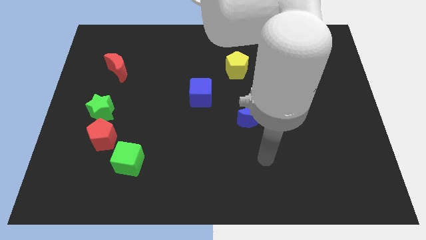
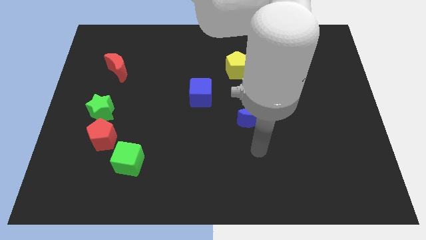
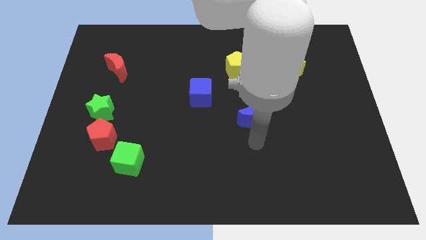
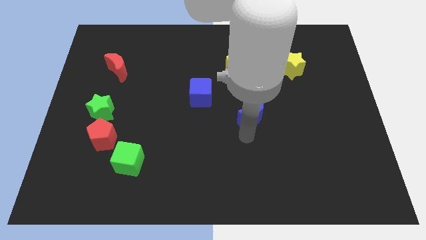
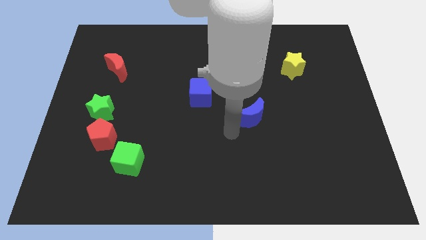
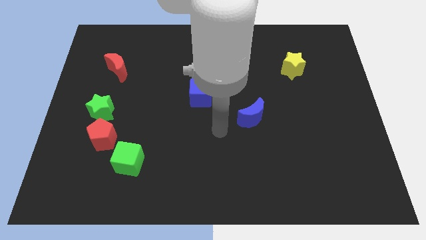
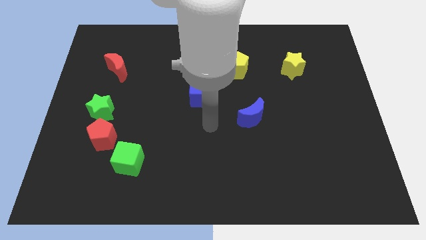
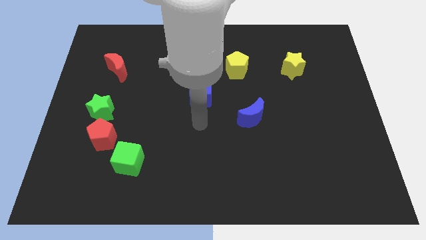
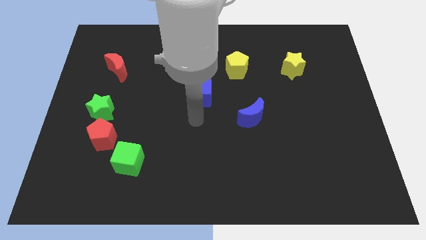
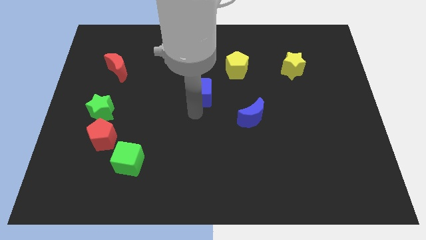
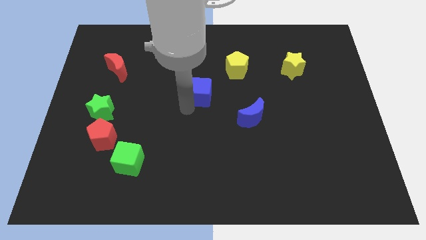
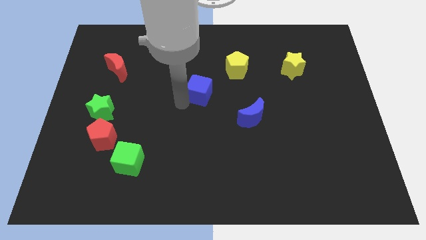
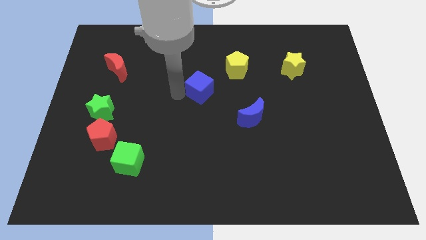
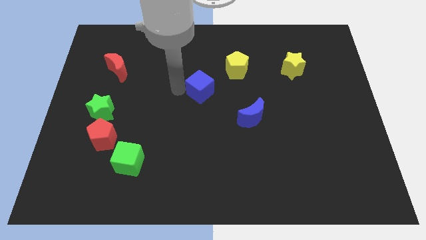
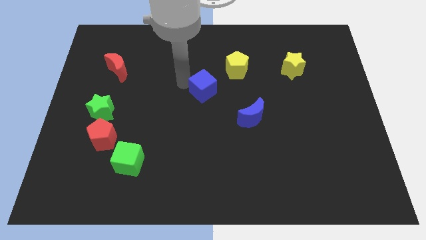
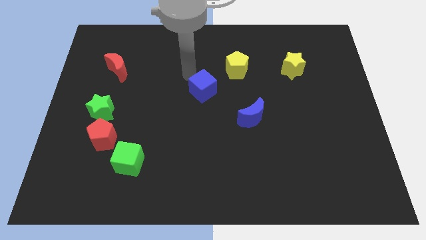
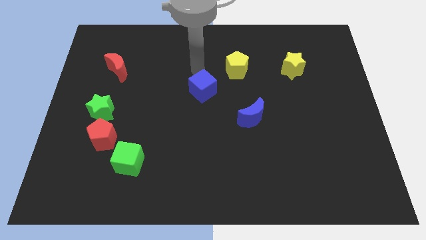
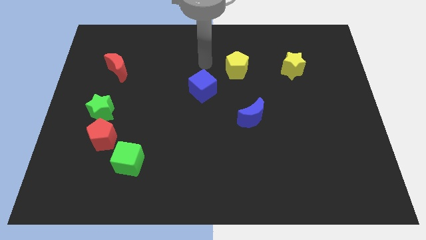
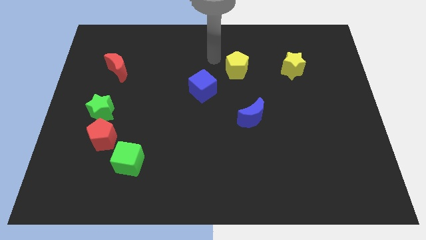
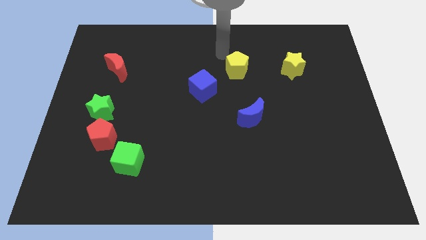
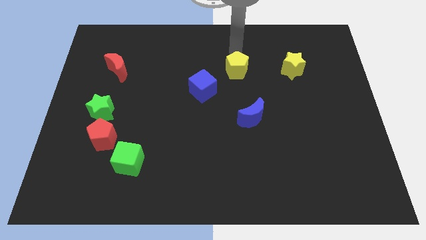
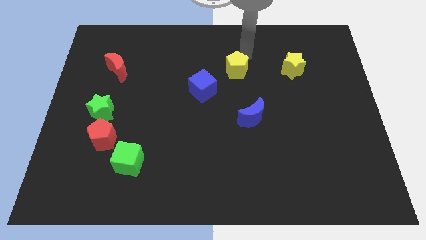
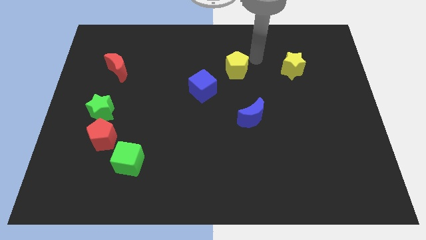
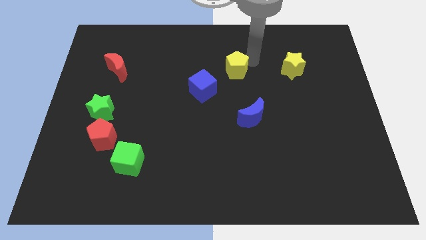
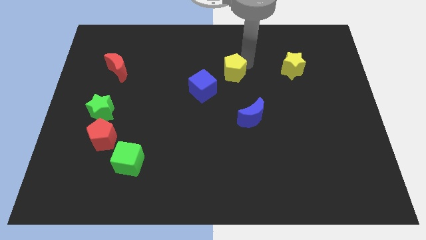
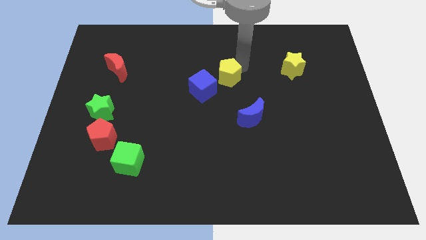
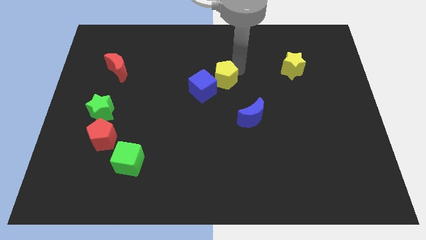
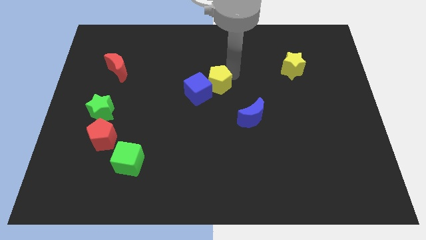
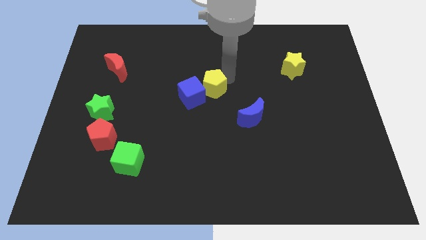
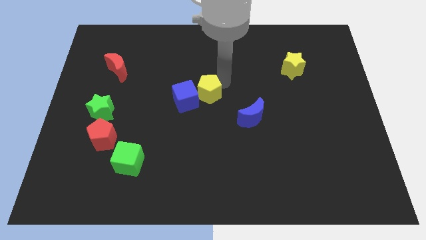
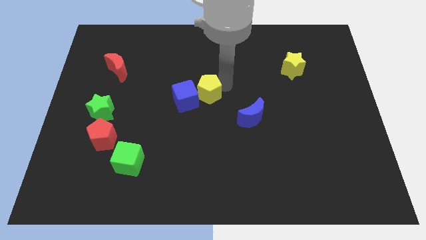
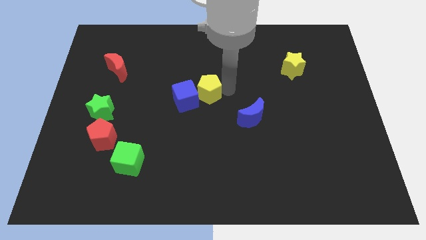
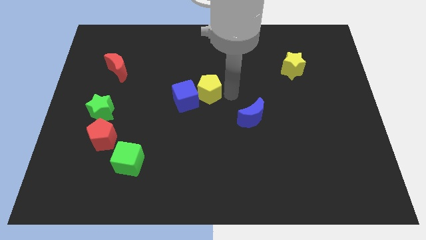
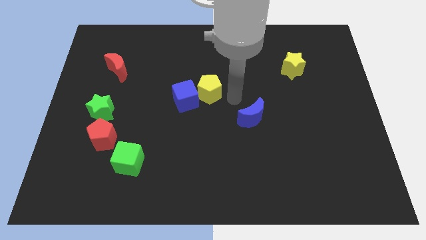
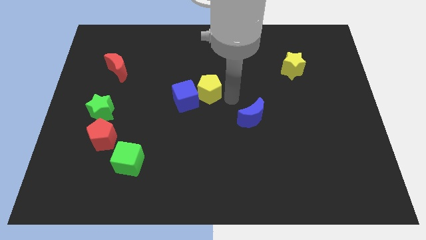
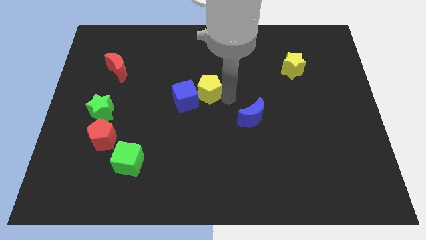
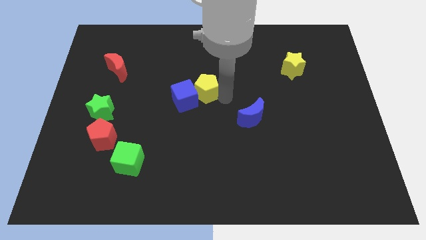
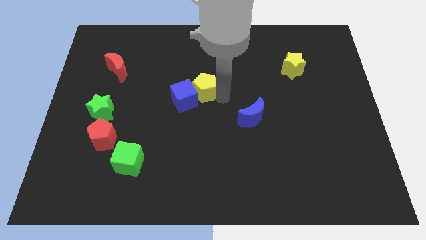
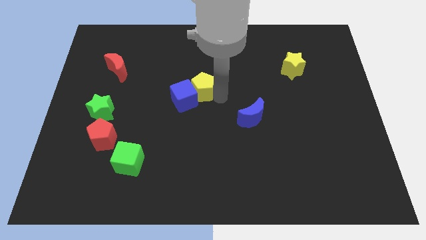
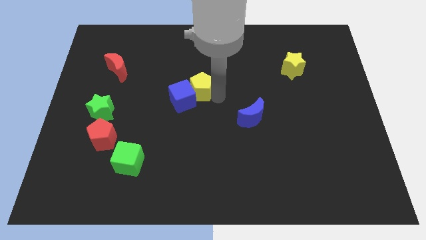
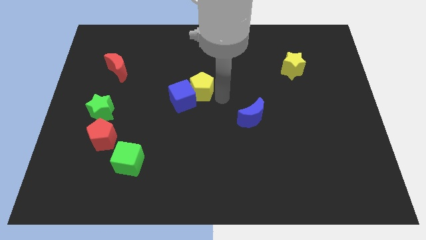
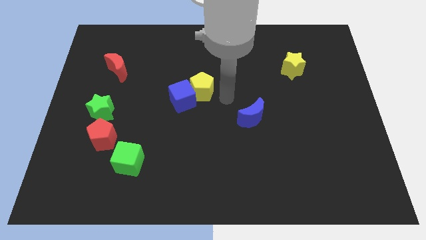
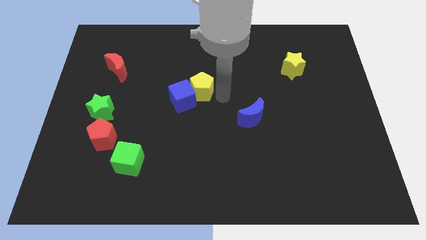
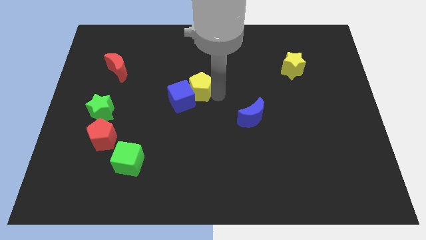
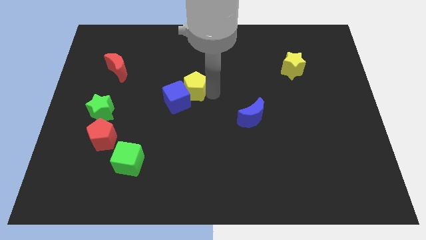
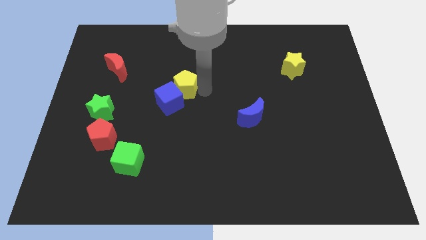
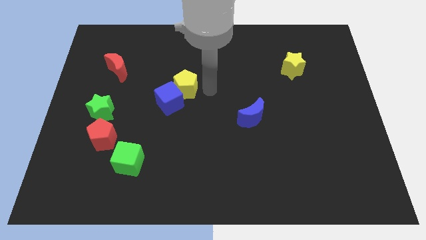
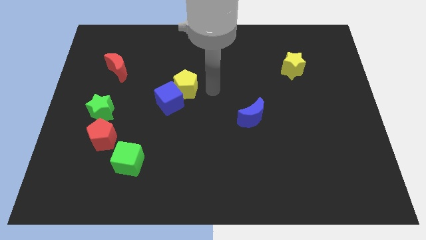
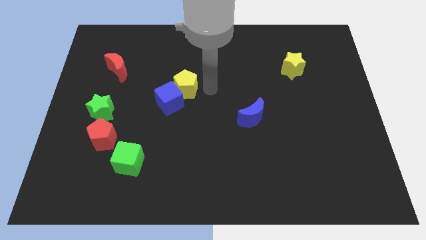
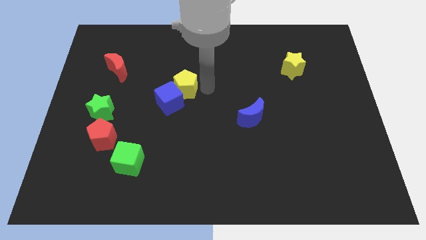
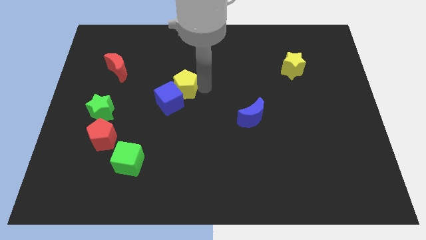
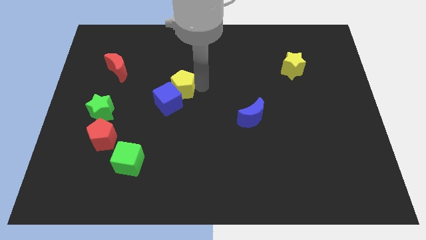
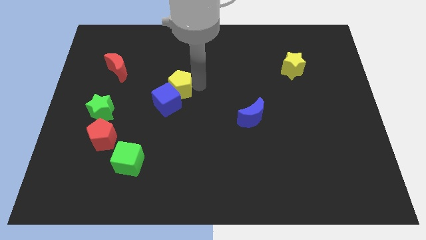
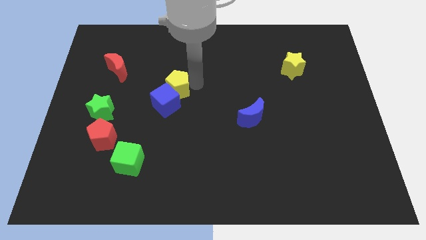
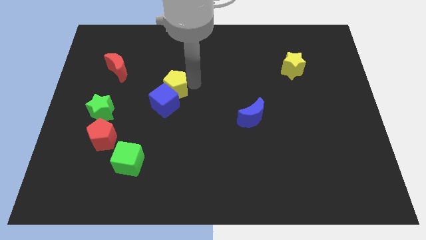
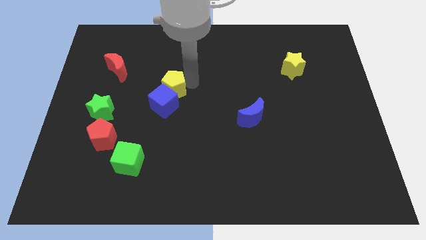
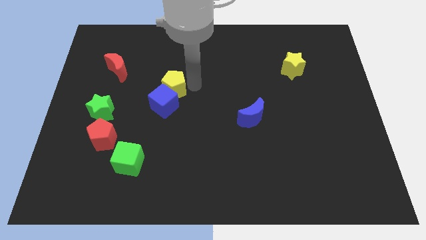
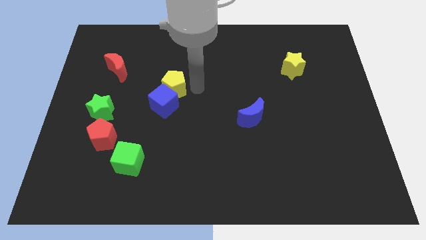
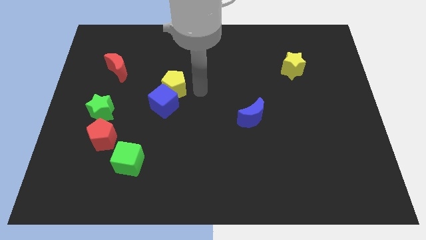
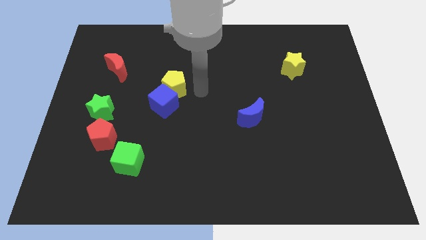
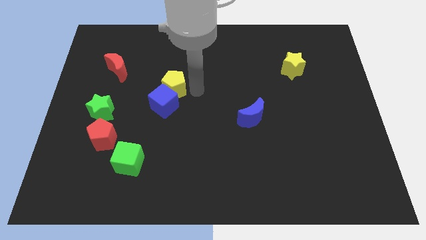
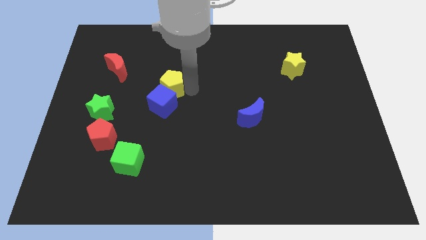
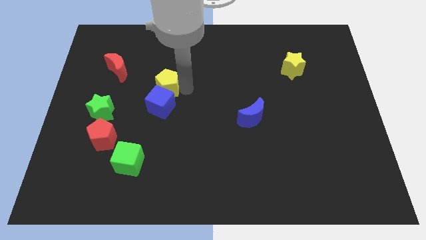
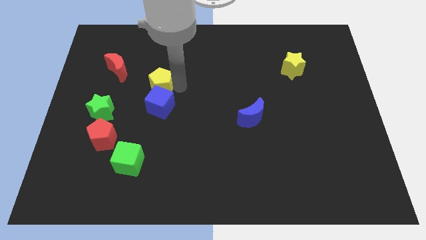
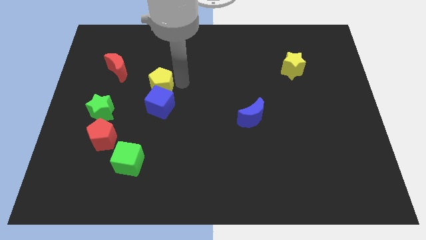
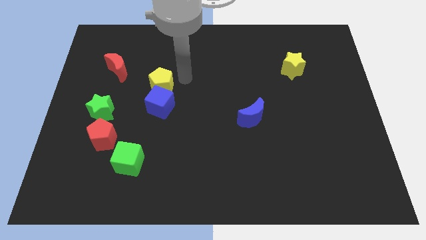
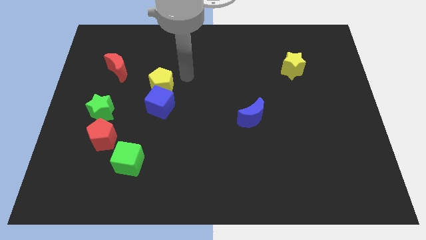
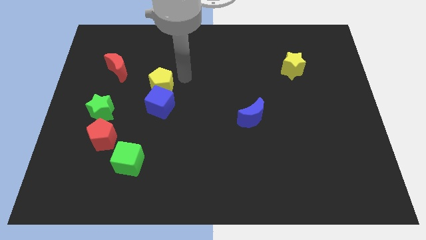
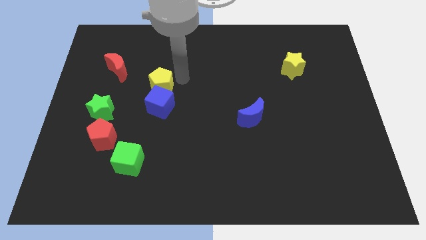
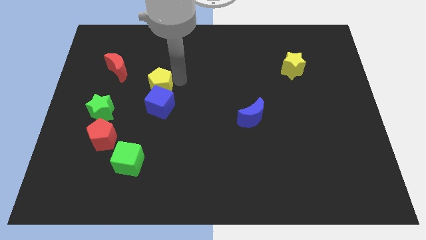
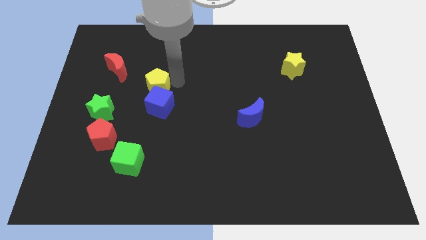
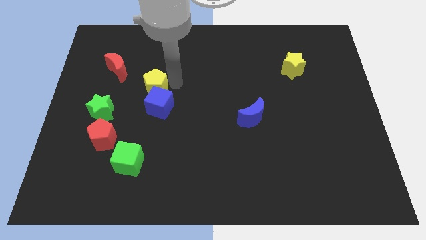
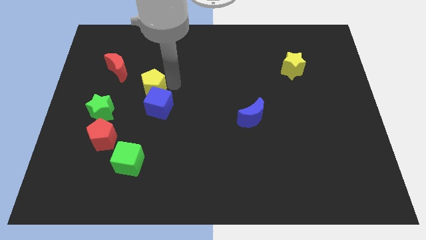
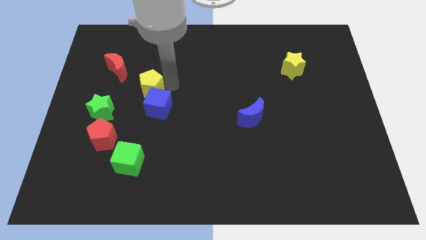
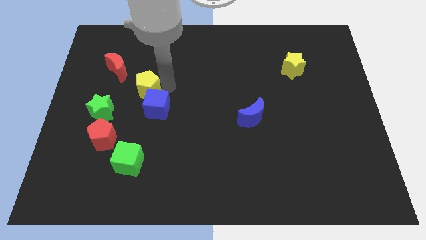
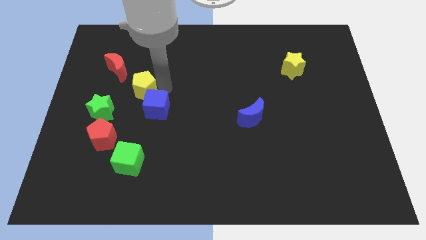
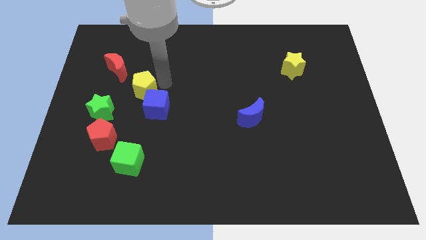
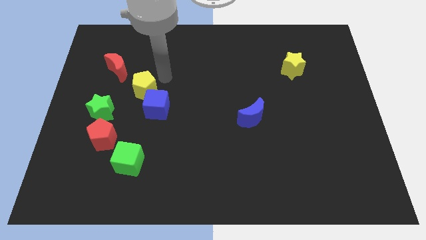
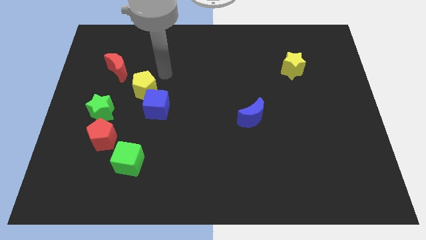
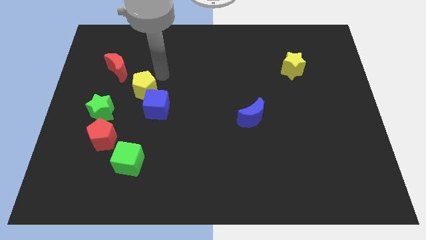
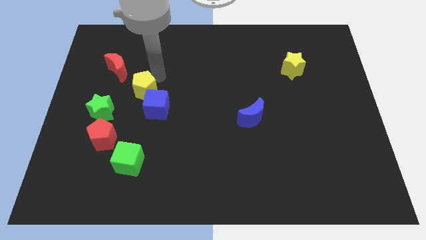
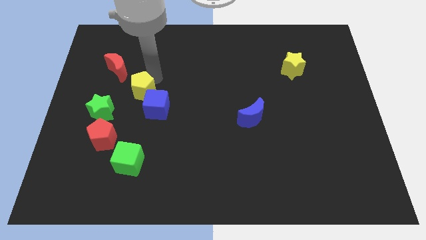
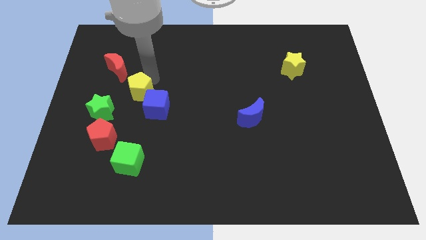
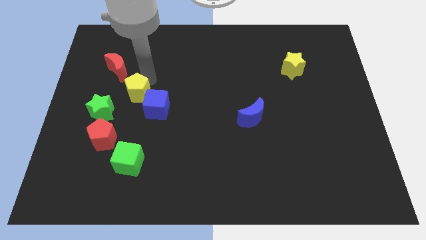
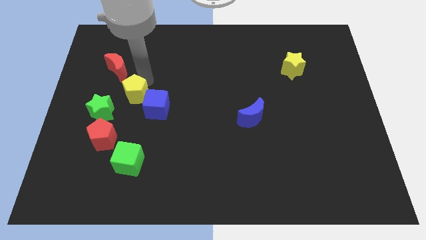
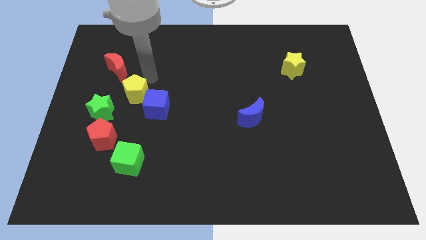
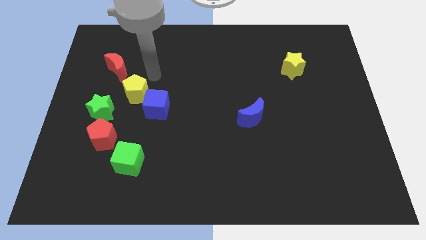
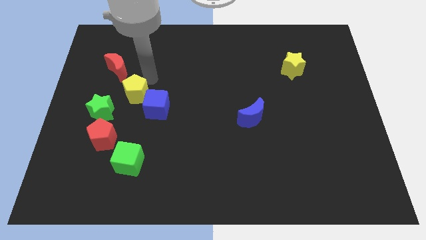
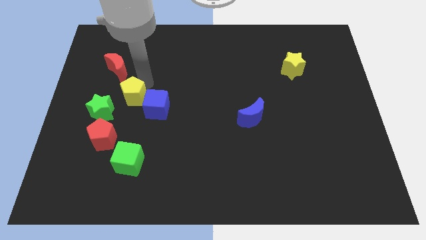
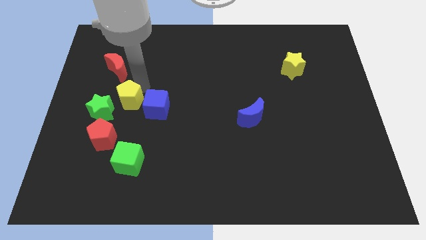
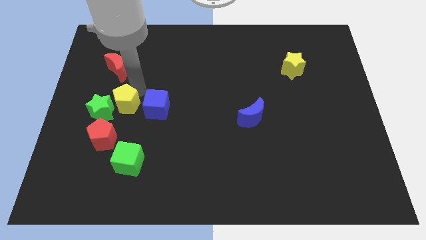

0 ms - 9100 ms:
push the yellow pentagon to the green star
